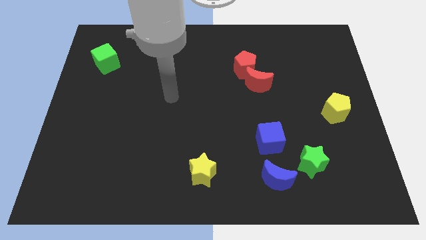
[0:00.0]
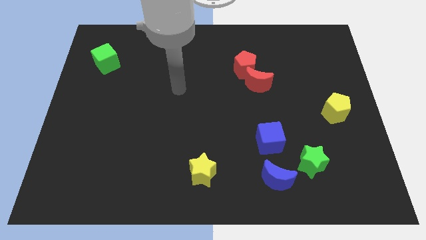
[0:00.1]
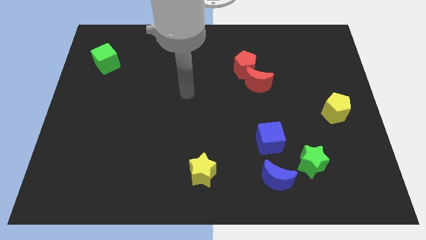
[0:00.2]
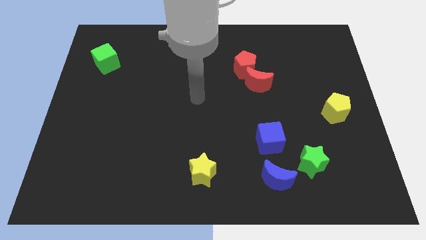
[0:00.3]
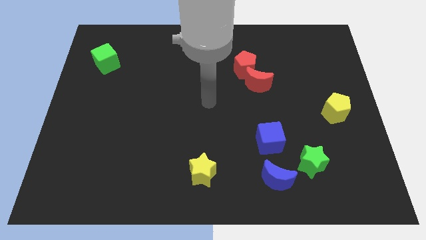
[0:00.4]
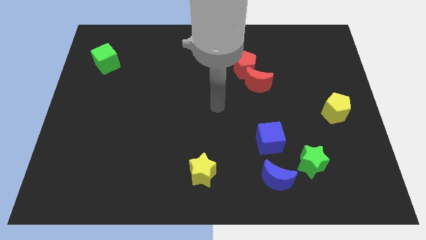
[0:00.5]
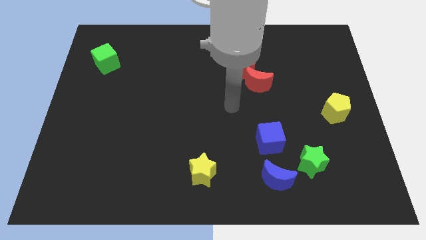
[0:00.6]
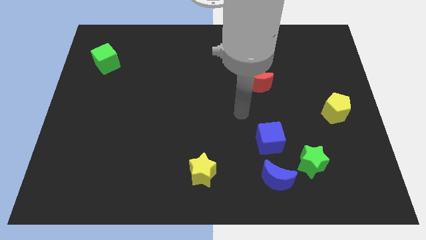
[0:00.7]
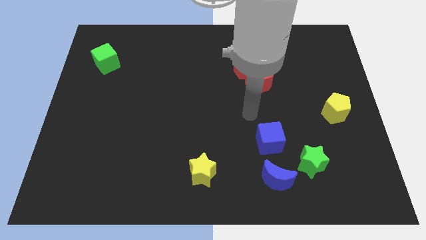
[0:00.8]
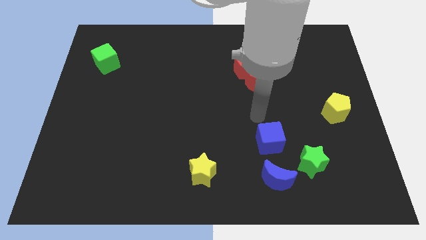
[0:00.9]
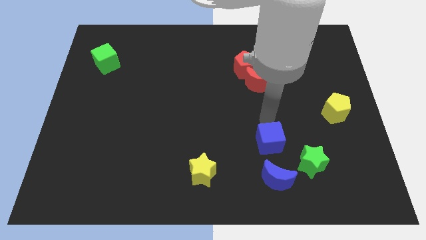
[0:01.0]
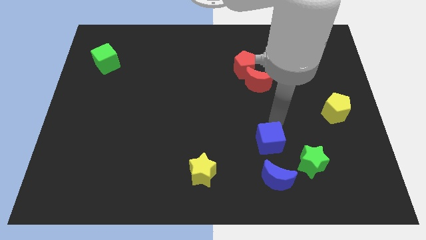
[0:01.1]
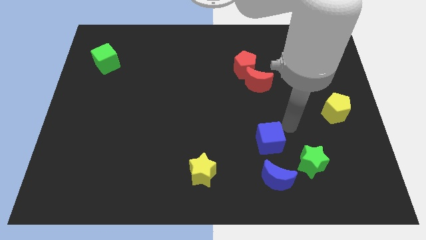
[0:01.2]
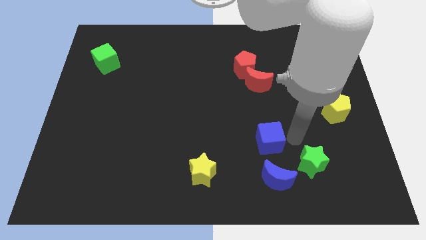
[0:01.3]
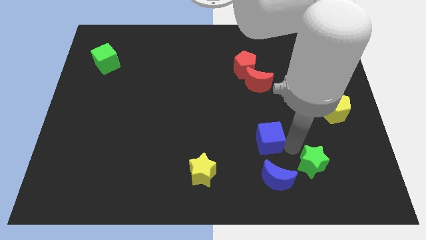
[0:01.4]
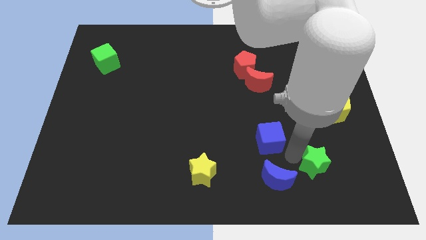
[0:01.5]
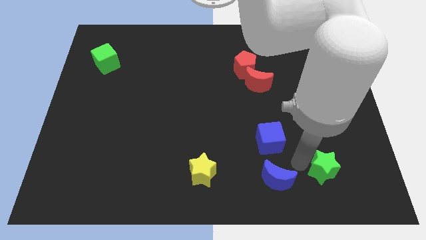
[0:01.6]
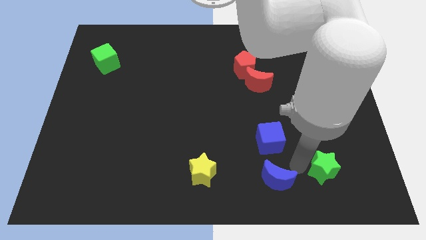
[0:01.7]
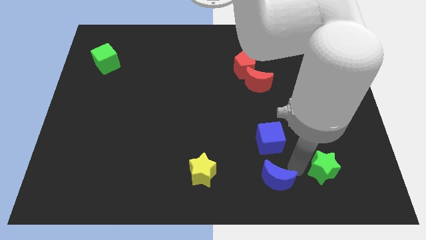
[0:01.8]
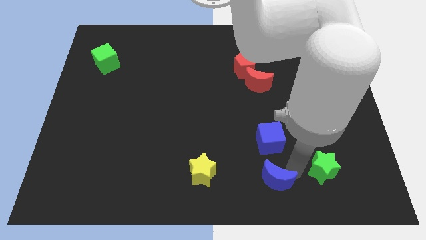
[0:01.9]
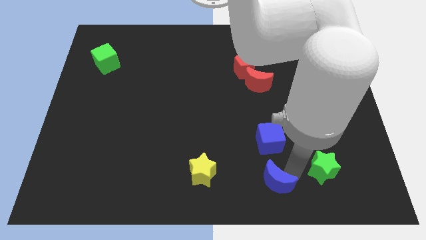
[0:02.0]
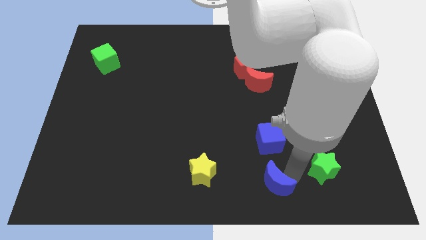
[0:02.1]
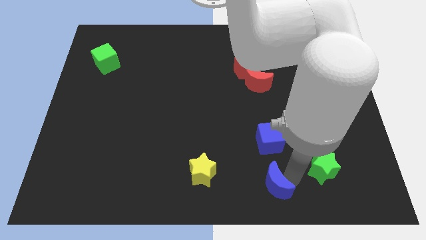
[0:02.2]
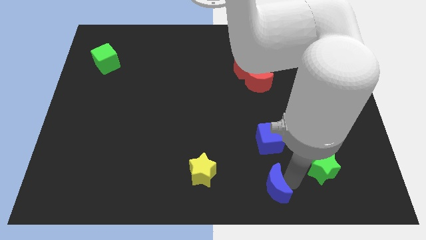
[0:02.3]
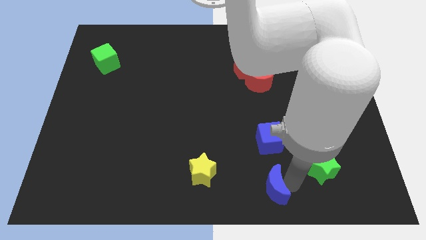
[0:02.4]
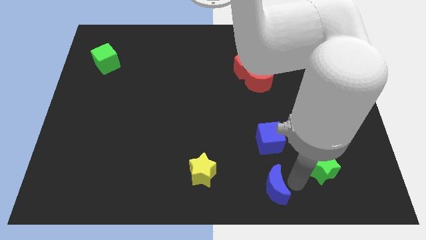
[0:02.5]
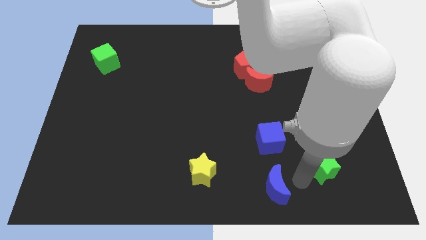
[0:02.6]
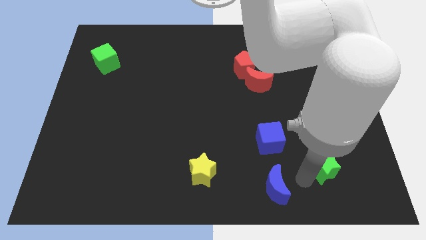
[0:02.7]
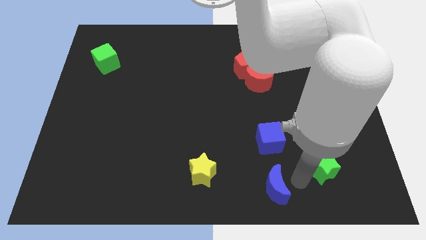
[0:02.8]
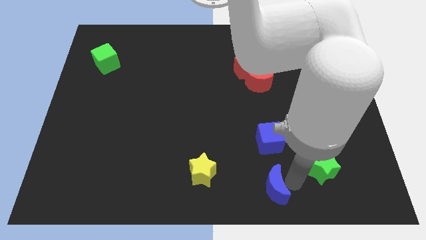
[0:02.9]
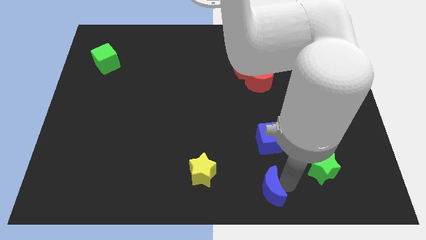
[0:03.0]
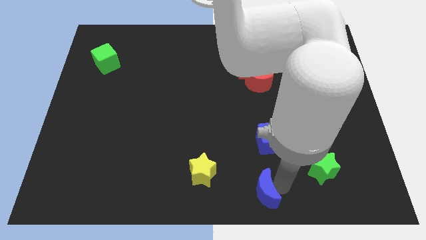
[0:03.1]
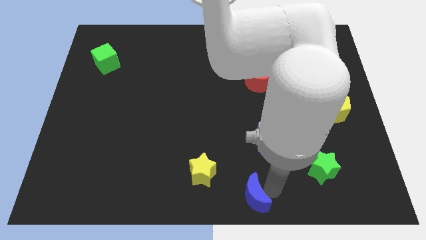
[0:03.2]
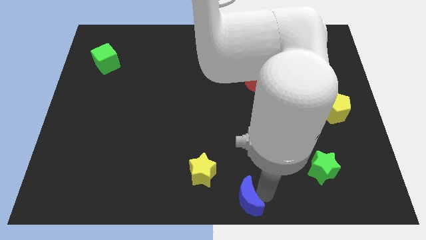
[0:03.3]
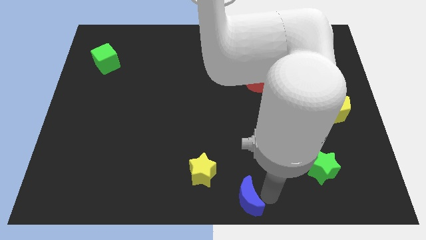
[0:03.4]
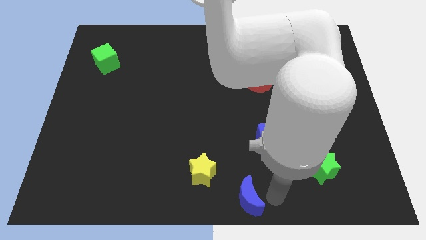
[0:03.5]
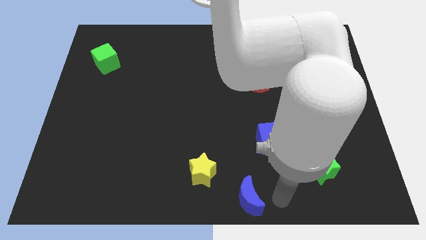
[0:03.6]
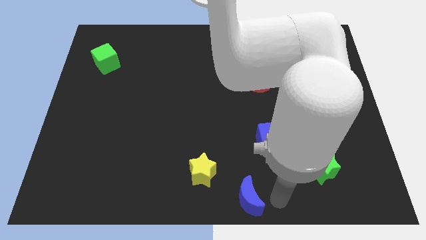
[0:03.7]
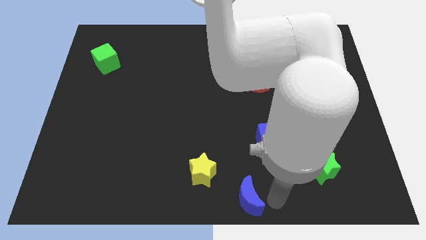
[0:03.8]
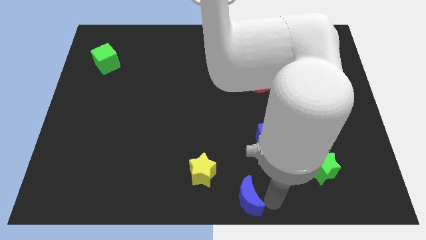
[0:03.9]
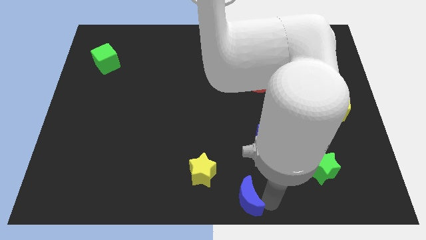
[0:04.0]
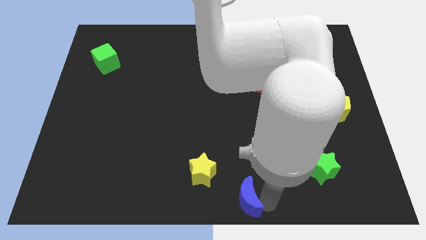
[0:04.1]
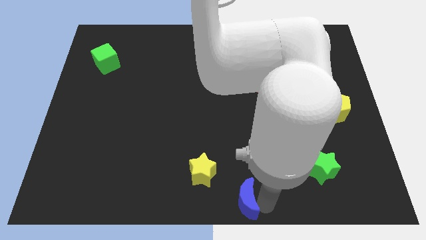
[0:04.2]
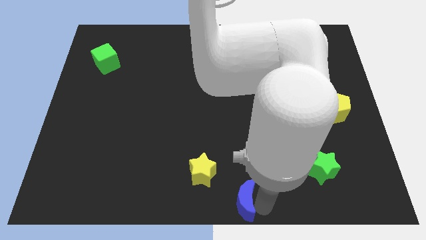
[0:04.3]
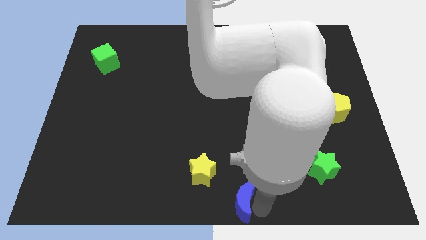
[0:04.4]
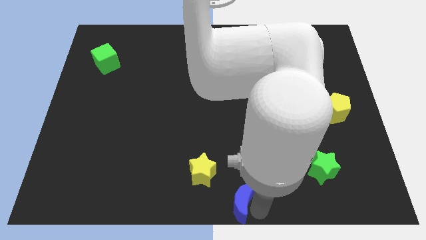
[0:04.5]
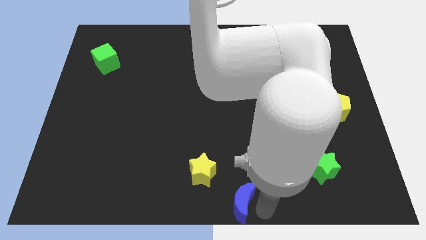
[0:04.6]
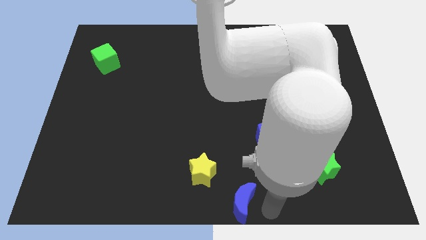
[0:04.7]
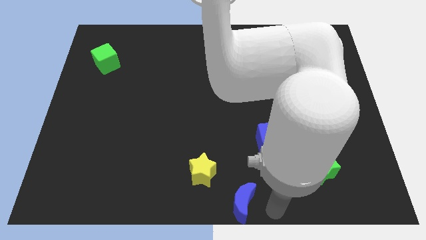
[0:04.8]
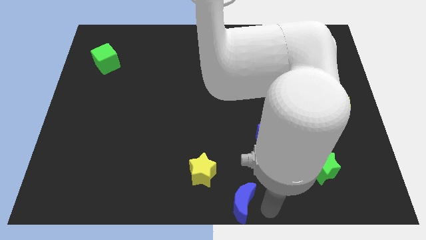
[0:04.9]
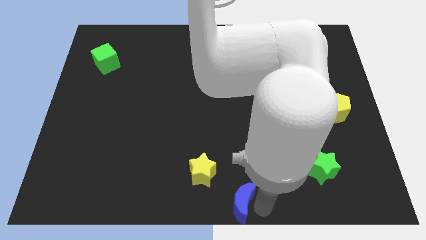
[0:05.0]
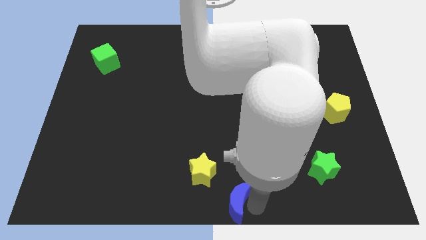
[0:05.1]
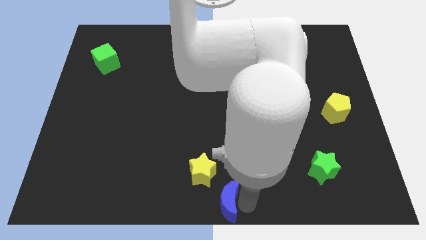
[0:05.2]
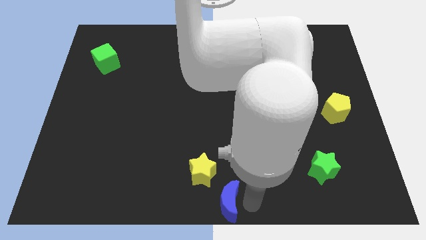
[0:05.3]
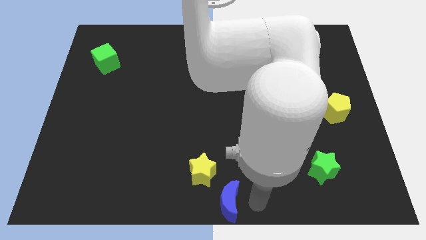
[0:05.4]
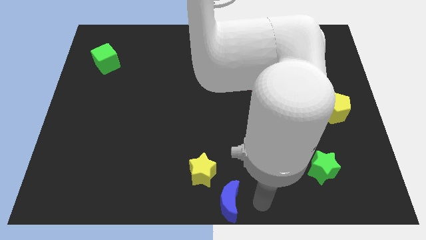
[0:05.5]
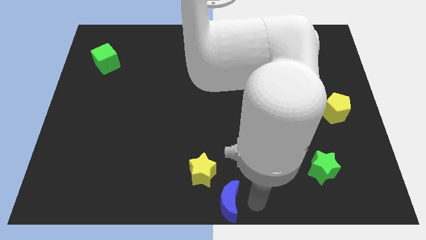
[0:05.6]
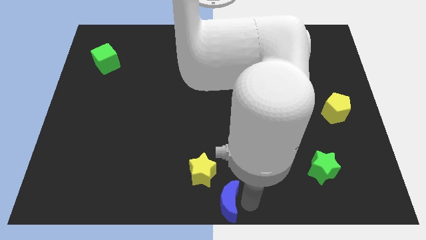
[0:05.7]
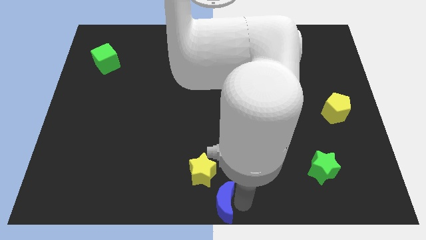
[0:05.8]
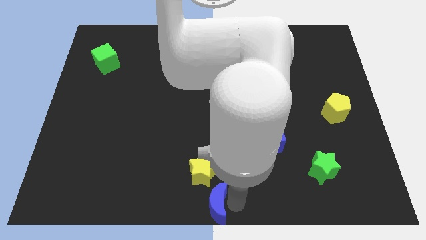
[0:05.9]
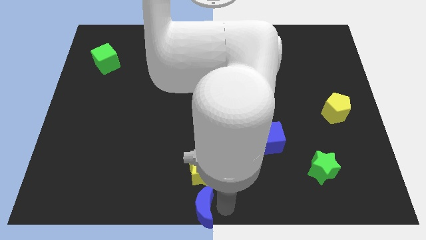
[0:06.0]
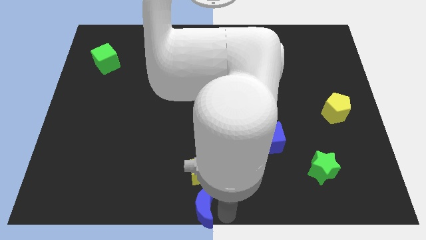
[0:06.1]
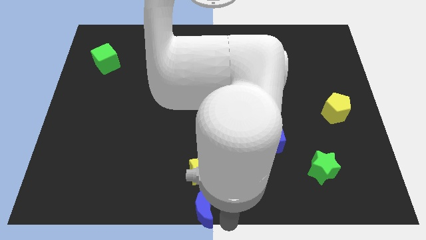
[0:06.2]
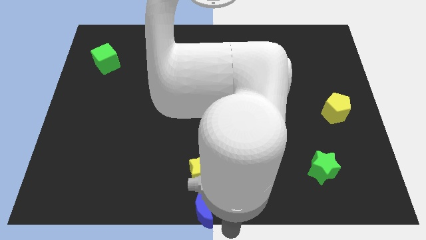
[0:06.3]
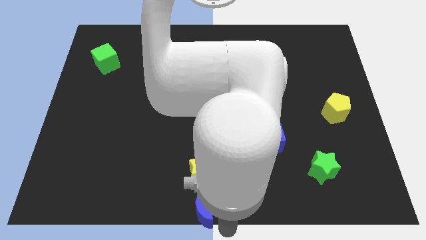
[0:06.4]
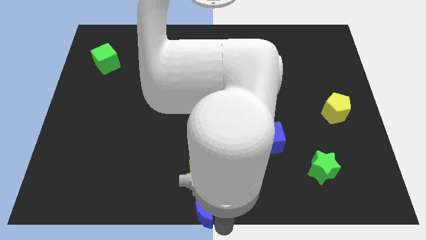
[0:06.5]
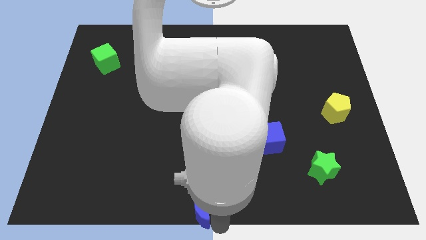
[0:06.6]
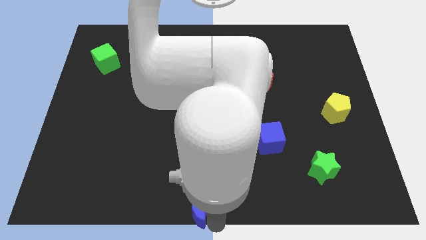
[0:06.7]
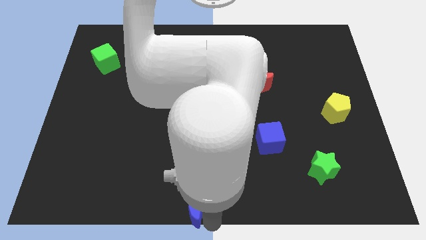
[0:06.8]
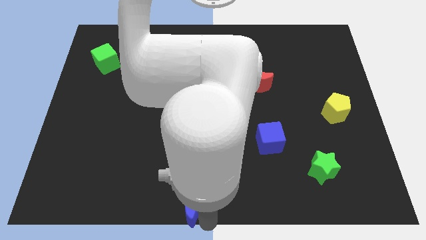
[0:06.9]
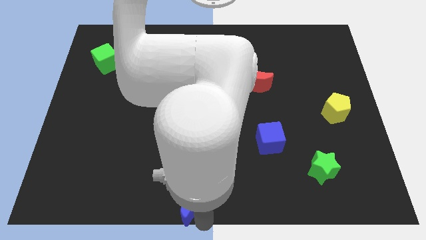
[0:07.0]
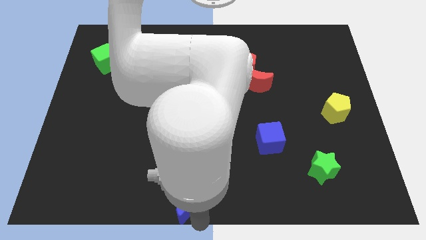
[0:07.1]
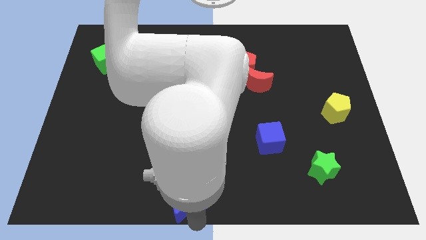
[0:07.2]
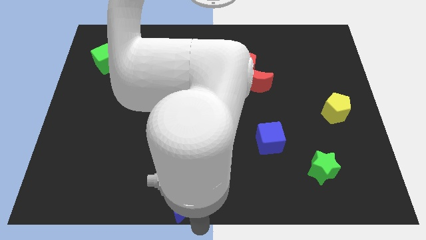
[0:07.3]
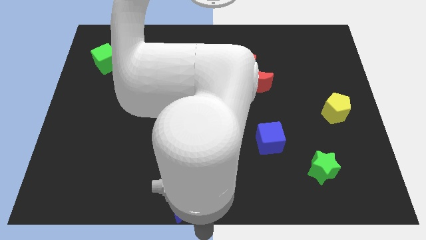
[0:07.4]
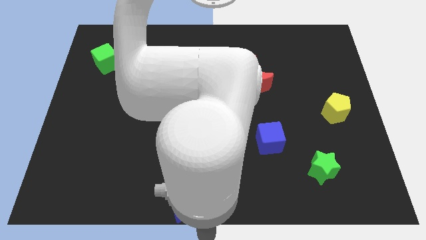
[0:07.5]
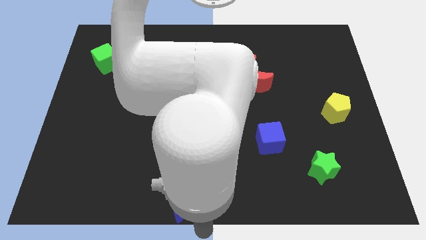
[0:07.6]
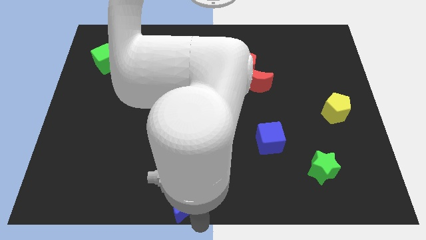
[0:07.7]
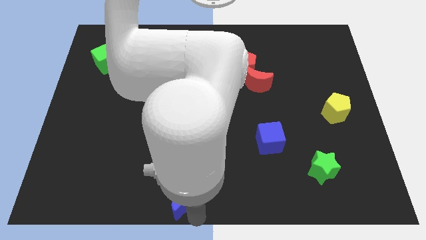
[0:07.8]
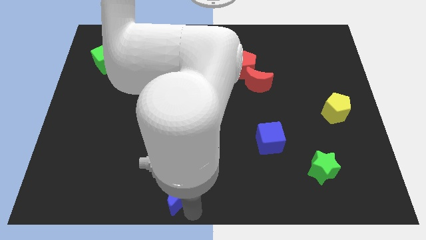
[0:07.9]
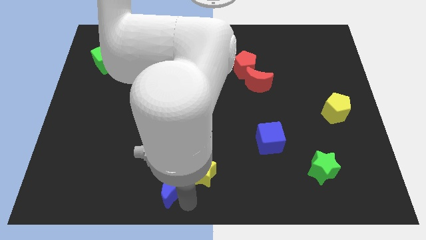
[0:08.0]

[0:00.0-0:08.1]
push the blue moon to the left side of the yellow star

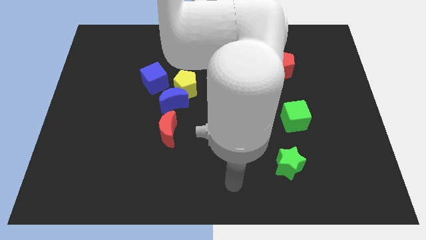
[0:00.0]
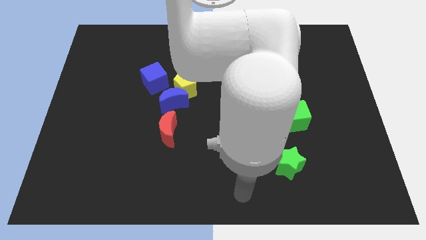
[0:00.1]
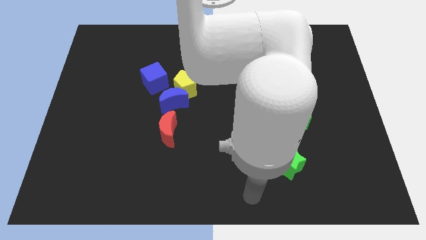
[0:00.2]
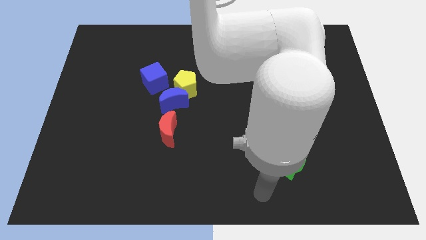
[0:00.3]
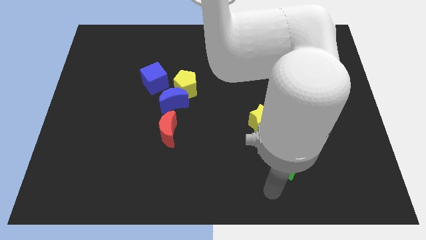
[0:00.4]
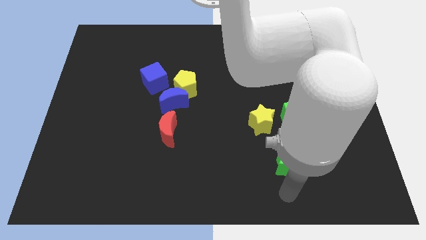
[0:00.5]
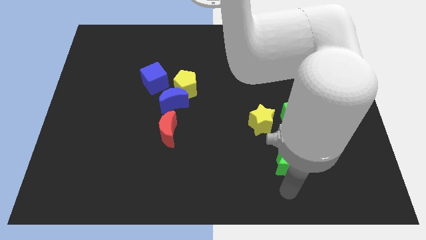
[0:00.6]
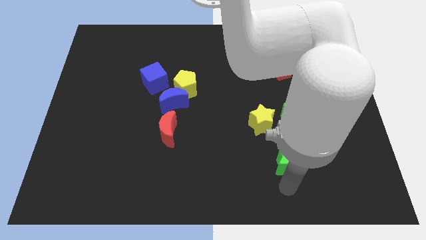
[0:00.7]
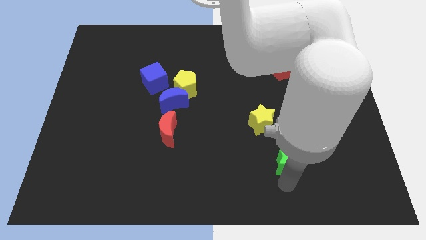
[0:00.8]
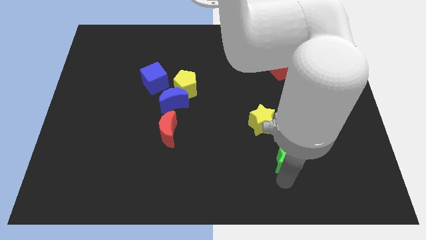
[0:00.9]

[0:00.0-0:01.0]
move the green star diagonally down and to the right of the yellow star
